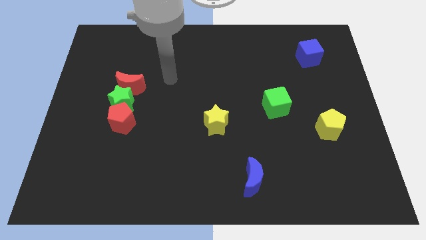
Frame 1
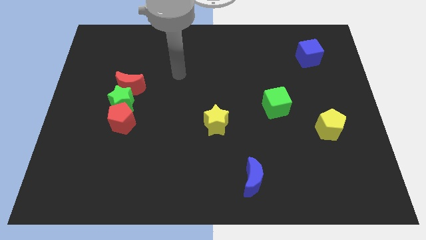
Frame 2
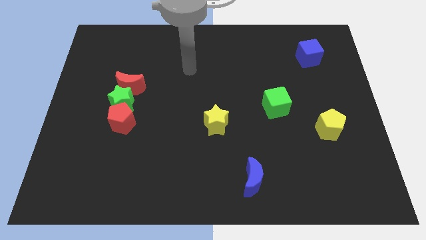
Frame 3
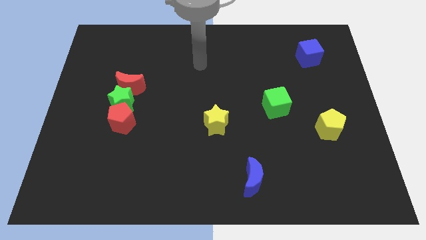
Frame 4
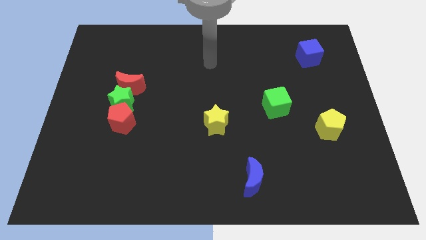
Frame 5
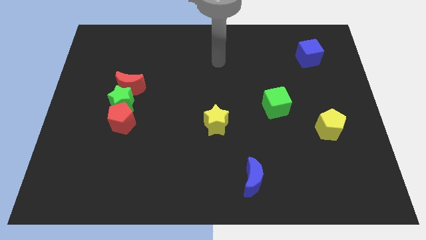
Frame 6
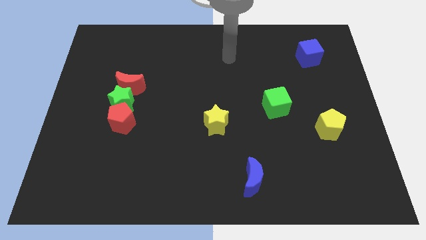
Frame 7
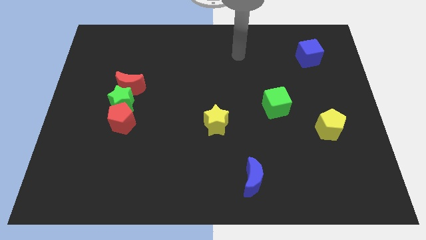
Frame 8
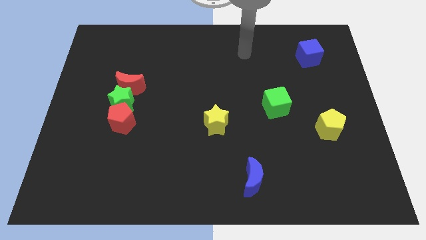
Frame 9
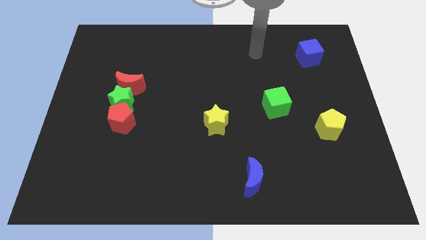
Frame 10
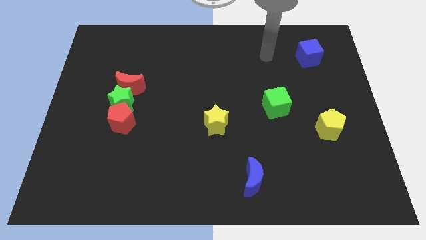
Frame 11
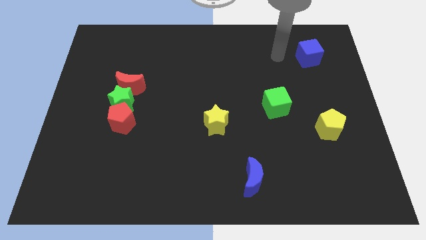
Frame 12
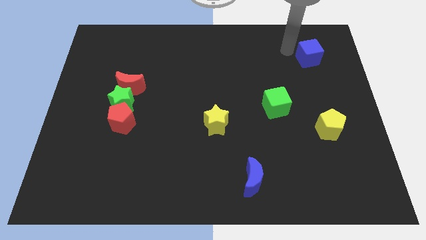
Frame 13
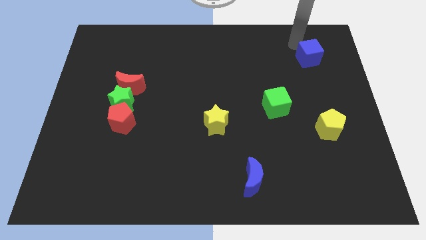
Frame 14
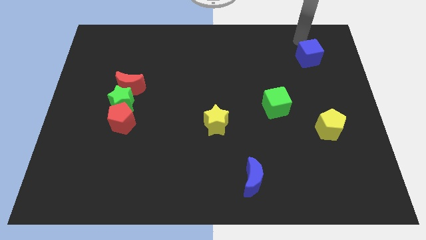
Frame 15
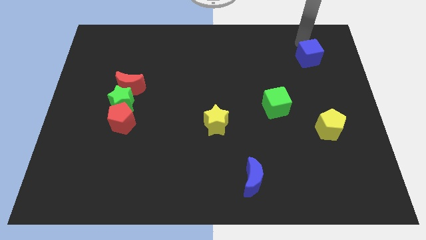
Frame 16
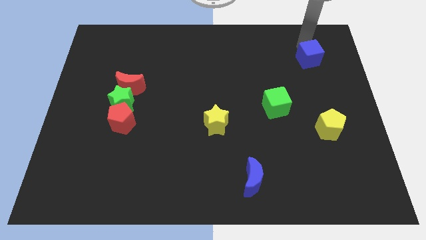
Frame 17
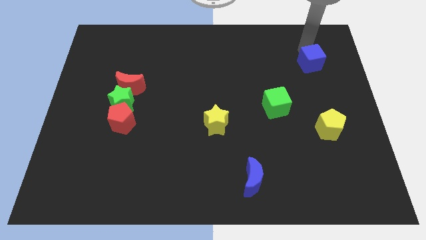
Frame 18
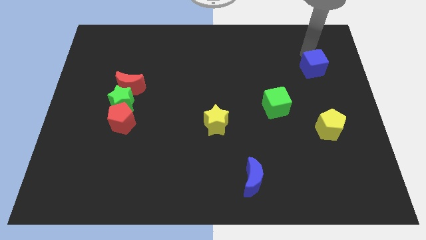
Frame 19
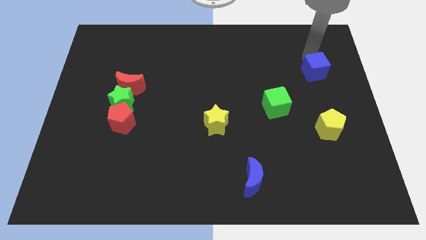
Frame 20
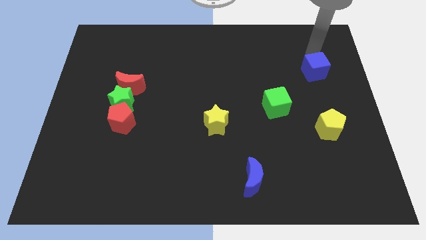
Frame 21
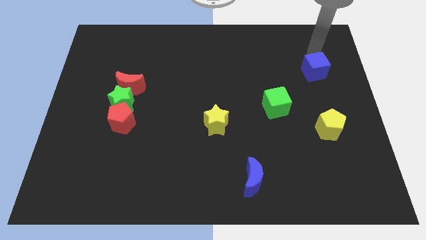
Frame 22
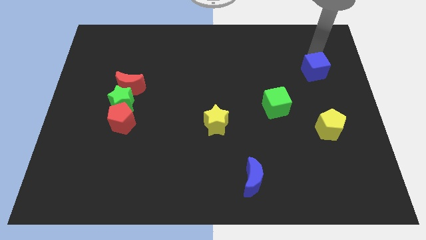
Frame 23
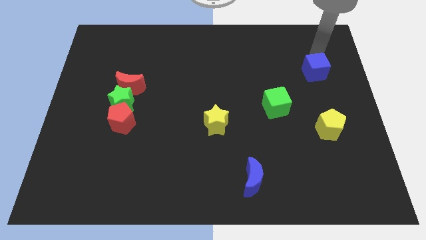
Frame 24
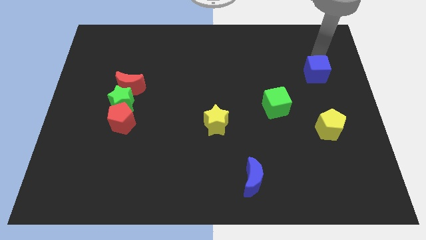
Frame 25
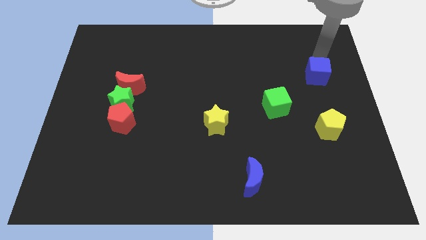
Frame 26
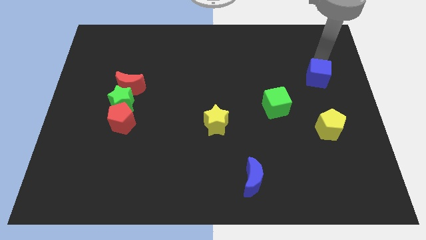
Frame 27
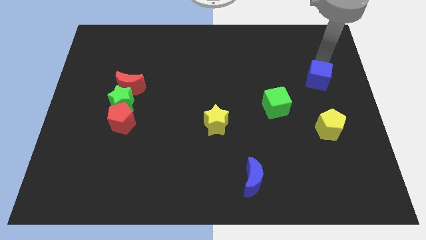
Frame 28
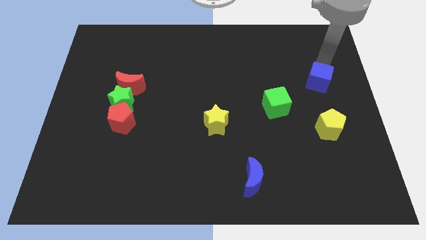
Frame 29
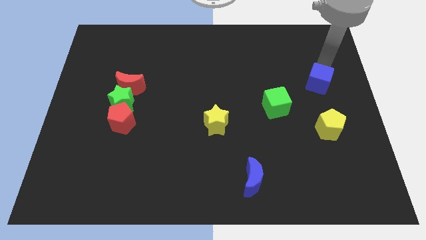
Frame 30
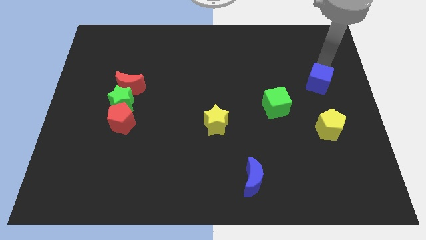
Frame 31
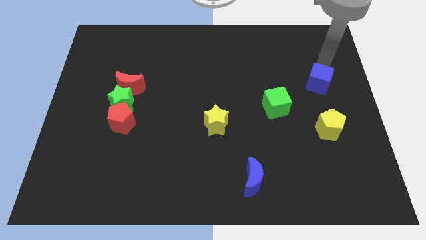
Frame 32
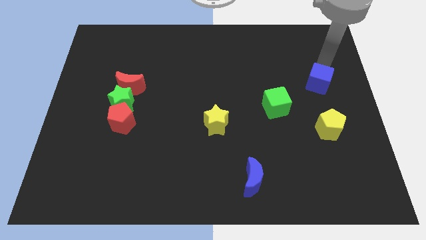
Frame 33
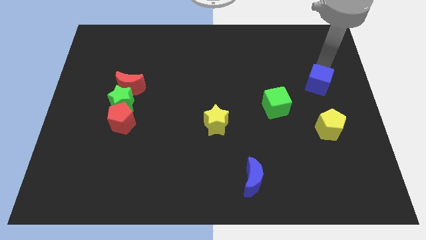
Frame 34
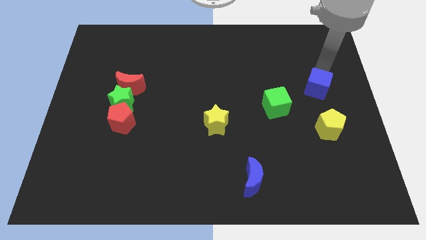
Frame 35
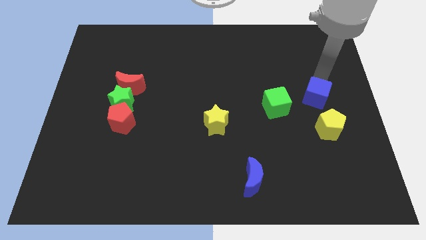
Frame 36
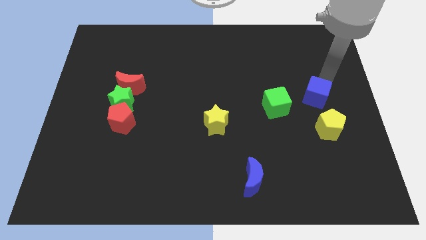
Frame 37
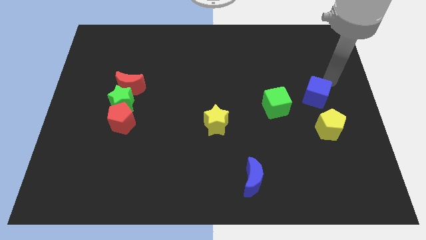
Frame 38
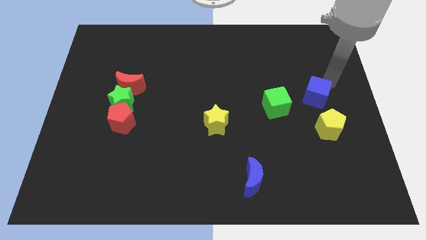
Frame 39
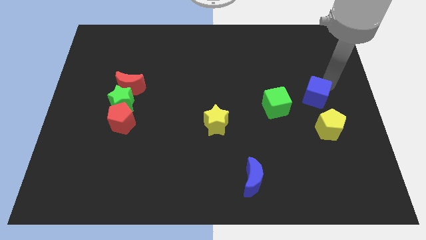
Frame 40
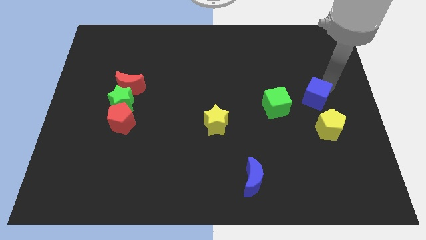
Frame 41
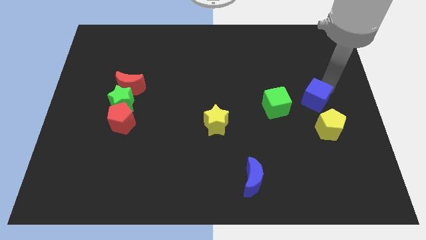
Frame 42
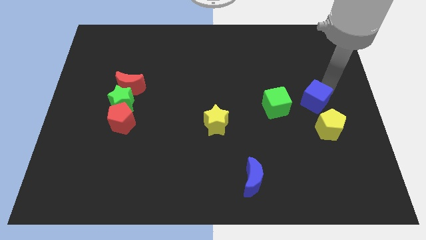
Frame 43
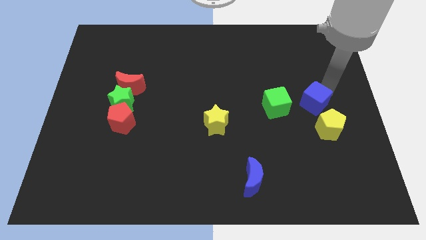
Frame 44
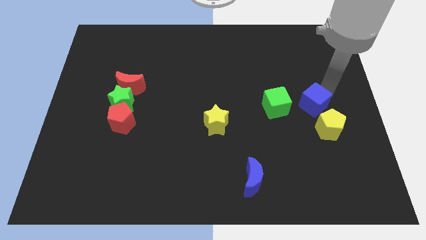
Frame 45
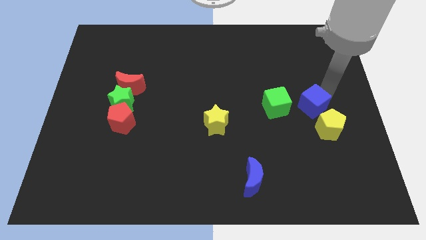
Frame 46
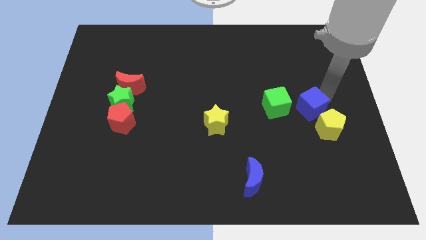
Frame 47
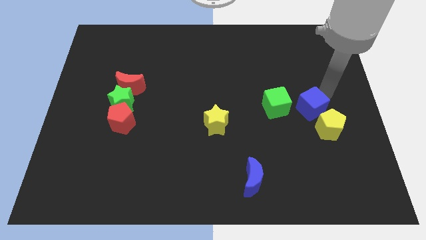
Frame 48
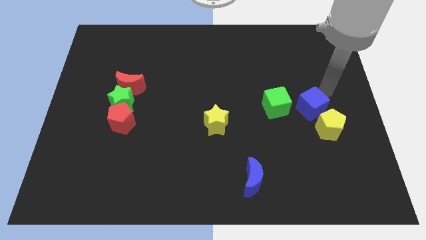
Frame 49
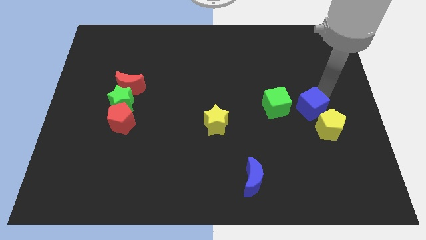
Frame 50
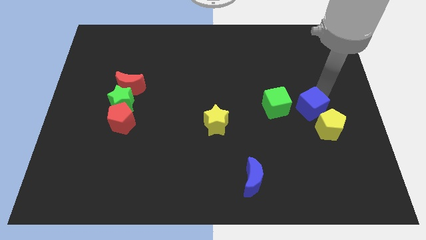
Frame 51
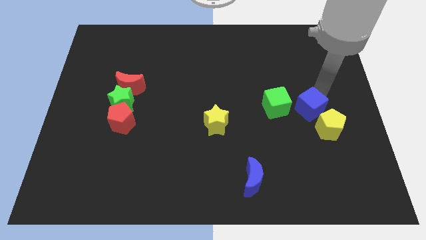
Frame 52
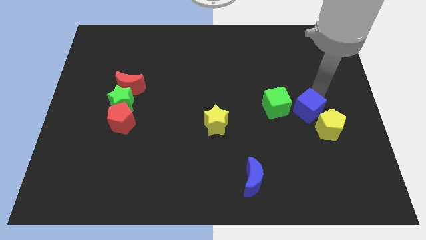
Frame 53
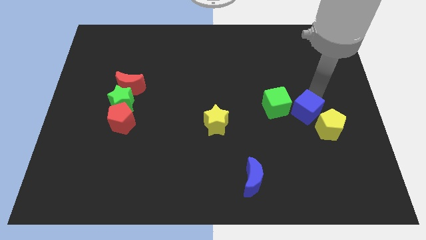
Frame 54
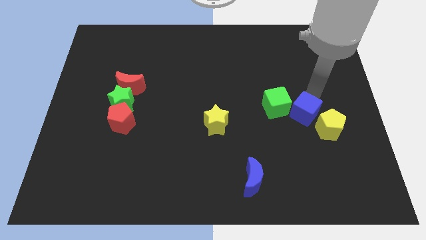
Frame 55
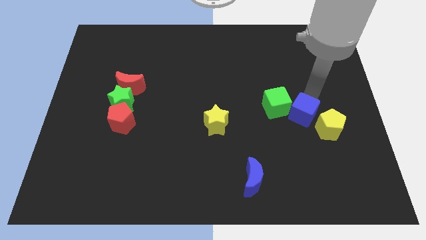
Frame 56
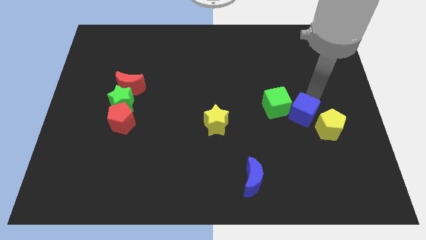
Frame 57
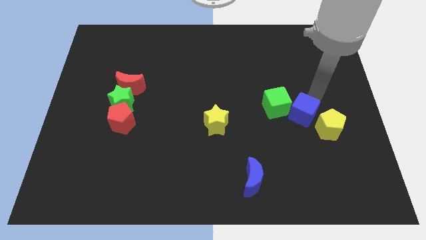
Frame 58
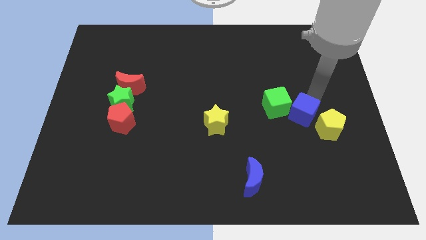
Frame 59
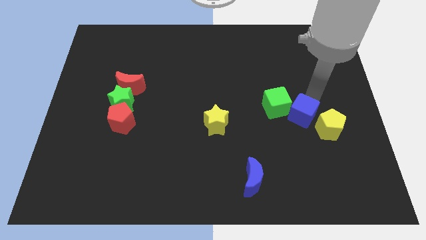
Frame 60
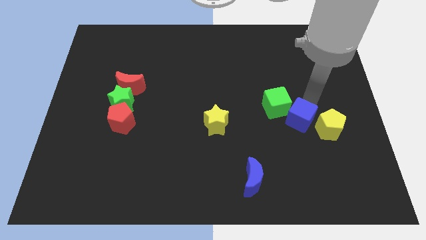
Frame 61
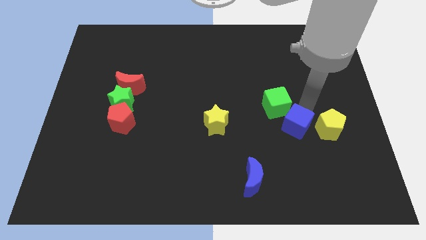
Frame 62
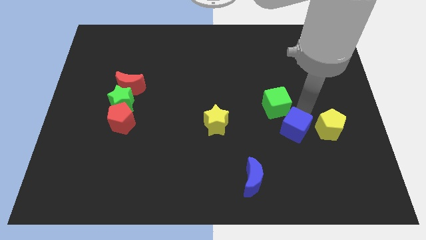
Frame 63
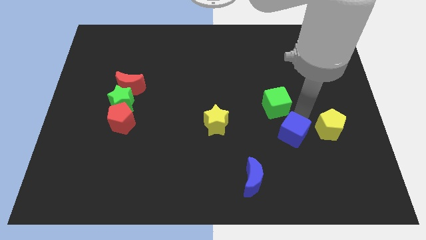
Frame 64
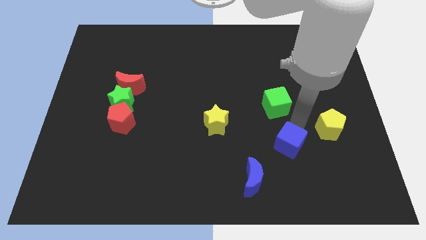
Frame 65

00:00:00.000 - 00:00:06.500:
put the blue cube to the top right side of the blue moon

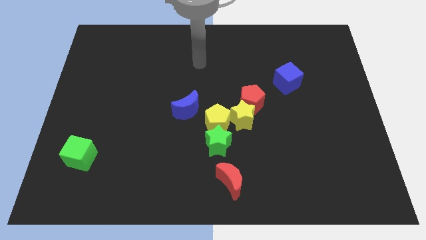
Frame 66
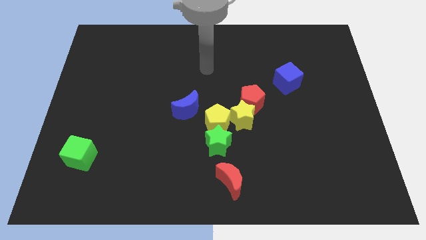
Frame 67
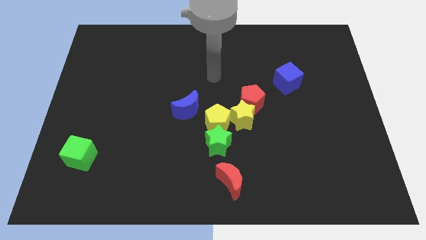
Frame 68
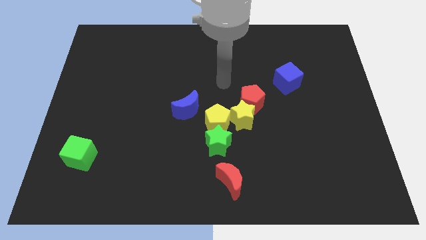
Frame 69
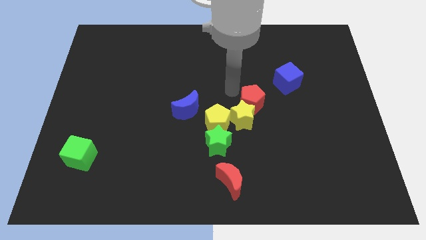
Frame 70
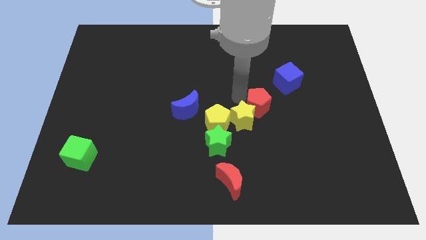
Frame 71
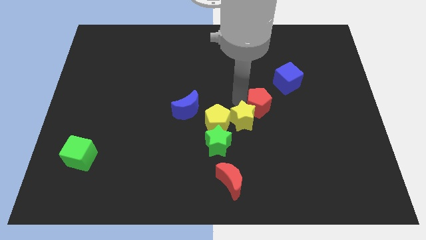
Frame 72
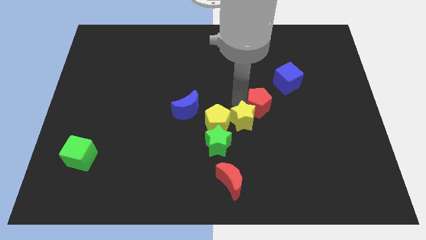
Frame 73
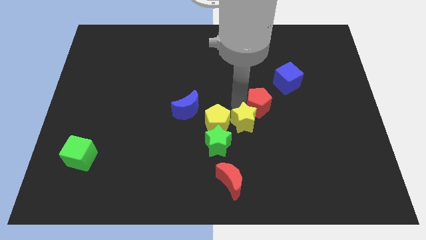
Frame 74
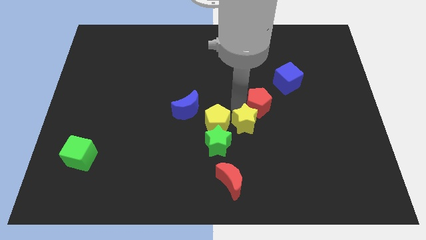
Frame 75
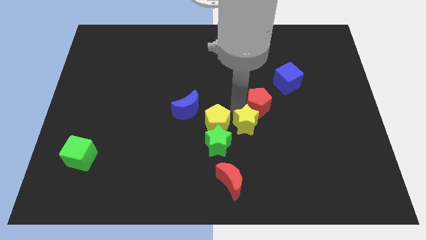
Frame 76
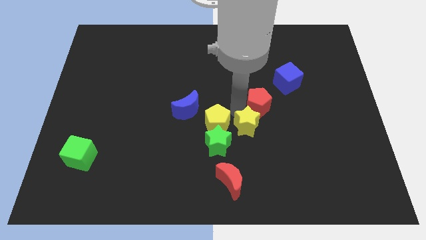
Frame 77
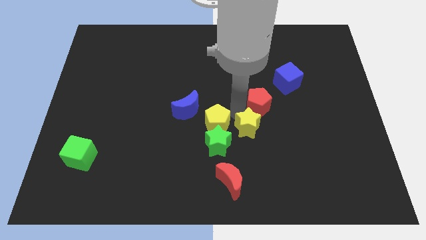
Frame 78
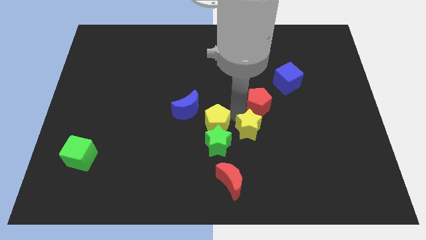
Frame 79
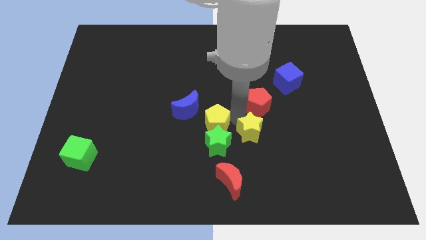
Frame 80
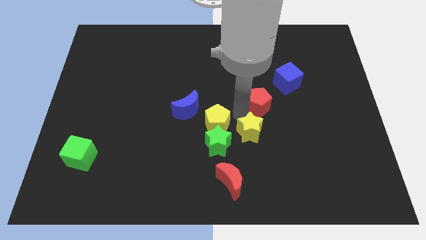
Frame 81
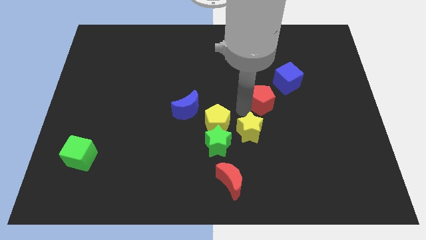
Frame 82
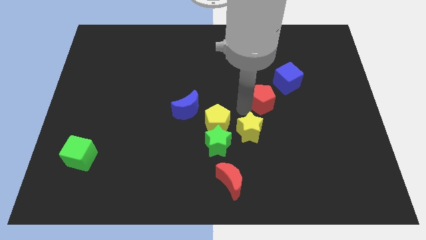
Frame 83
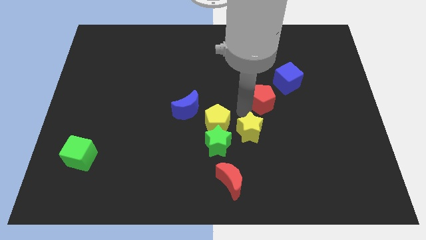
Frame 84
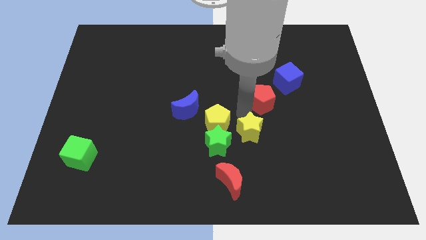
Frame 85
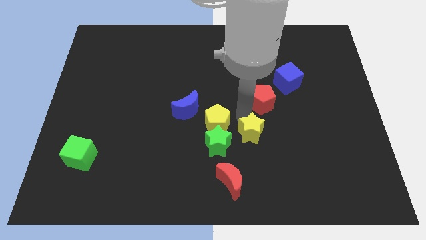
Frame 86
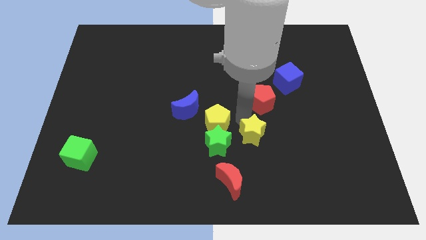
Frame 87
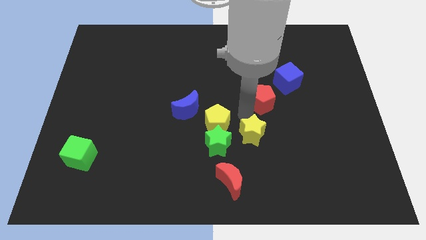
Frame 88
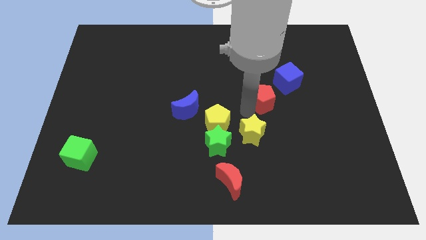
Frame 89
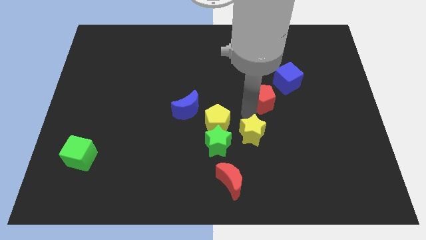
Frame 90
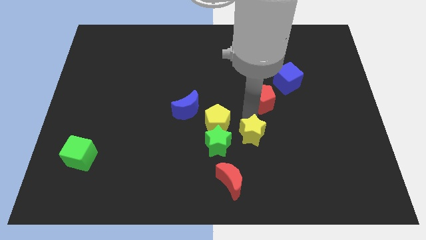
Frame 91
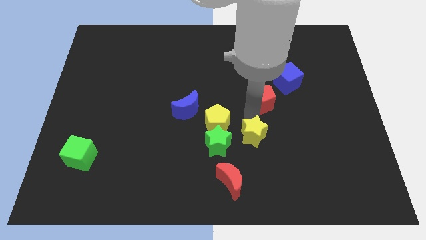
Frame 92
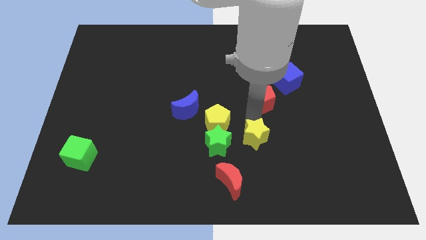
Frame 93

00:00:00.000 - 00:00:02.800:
slide the yellow star to the top right side of the red moon
